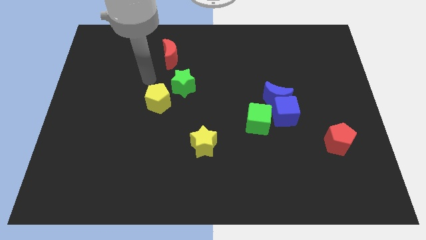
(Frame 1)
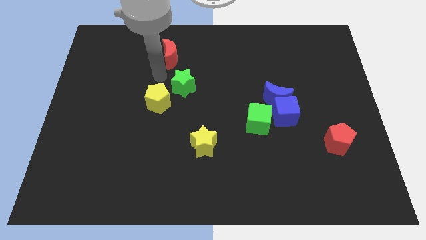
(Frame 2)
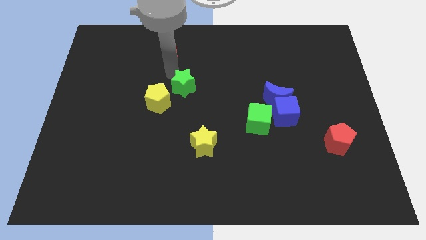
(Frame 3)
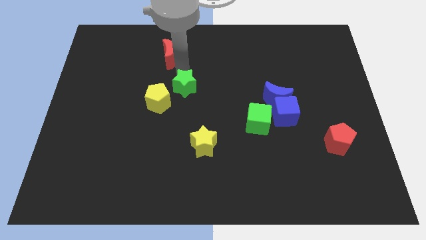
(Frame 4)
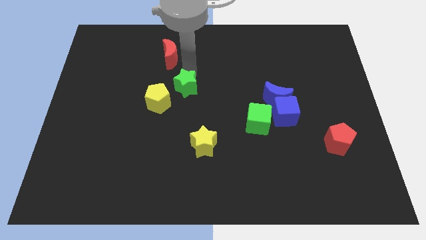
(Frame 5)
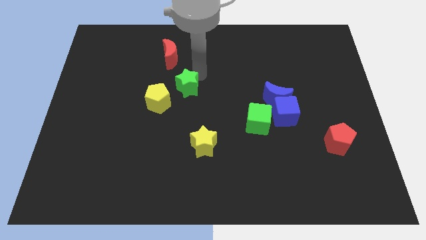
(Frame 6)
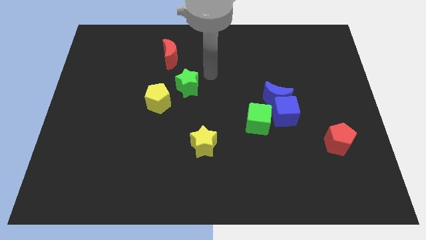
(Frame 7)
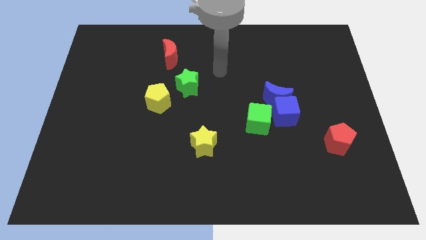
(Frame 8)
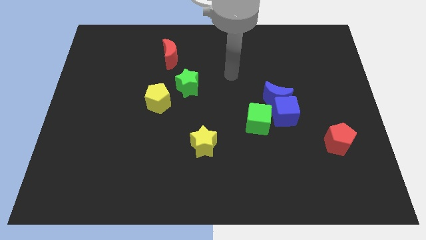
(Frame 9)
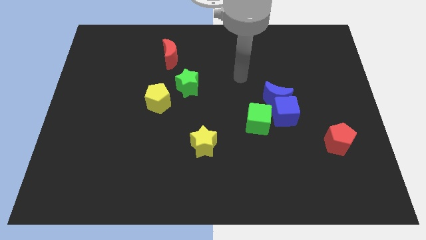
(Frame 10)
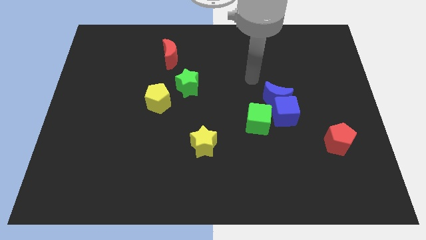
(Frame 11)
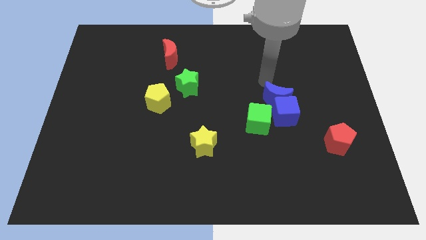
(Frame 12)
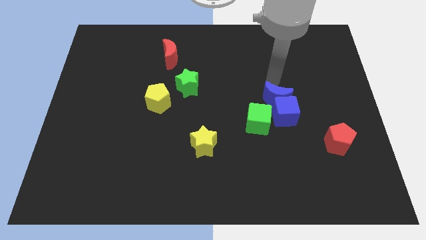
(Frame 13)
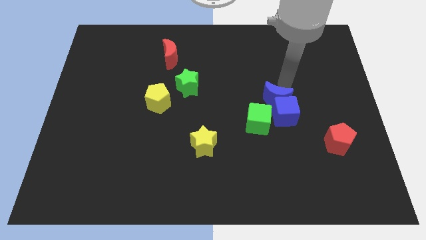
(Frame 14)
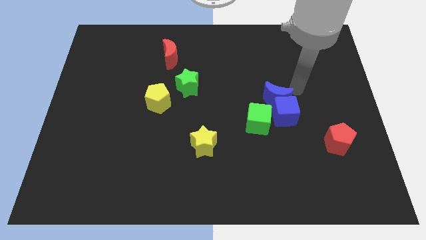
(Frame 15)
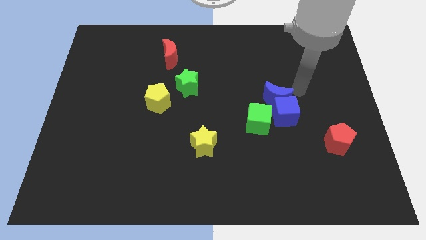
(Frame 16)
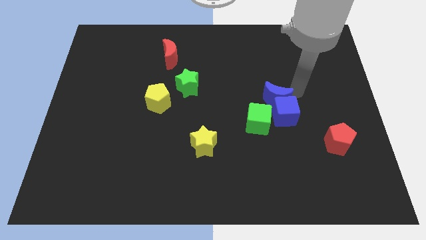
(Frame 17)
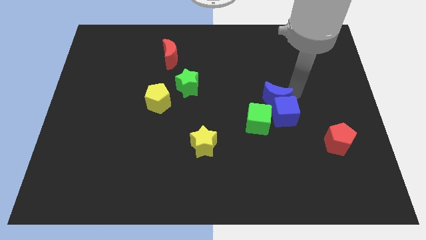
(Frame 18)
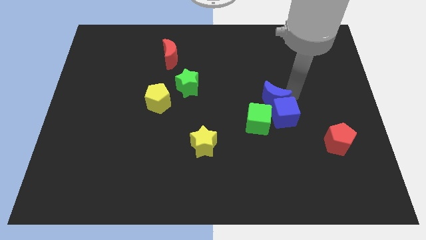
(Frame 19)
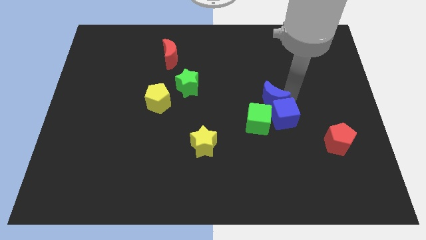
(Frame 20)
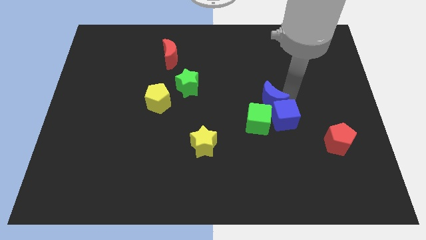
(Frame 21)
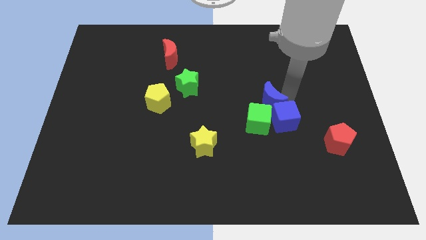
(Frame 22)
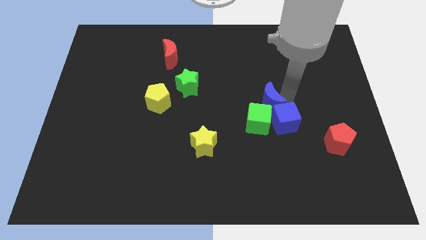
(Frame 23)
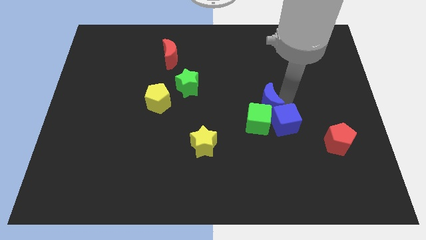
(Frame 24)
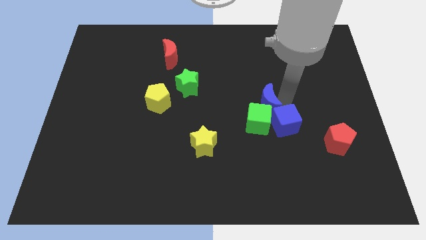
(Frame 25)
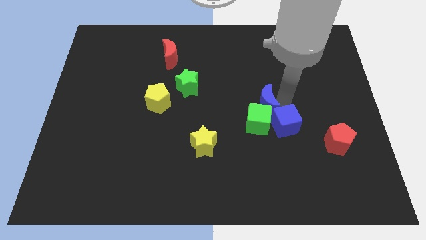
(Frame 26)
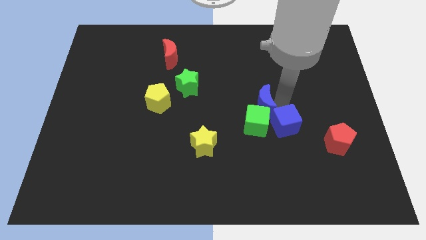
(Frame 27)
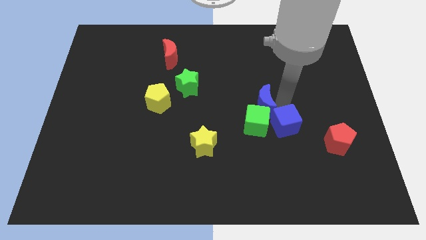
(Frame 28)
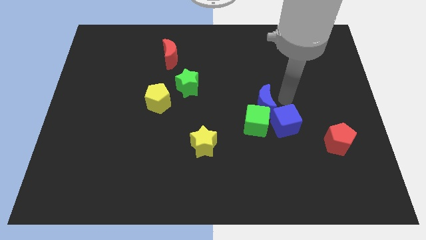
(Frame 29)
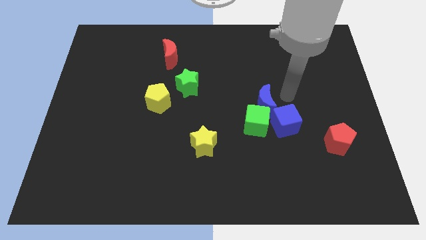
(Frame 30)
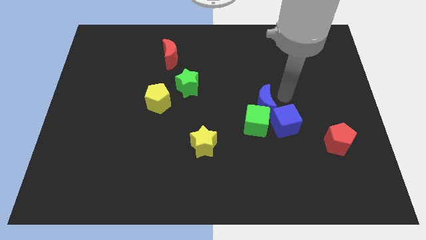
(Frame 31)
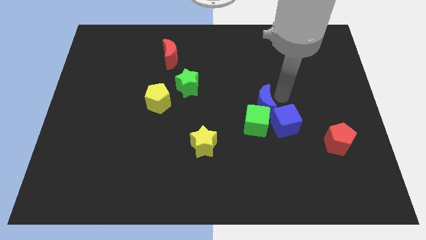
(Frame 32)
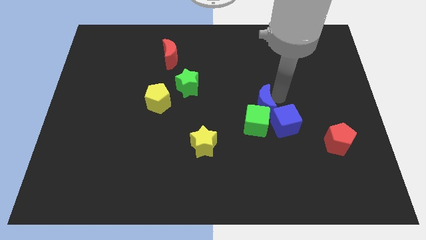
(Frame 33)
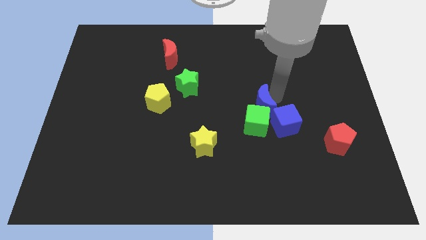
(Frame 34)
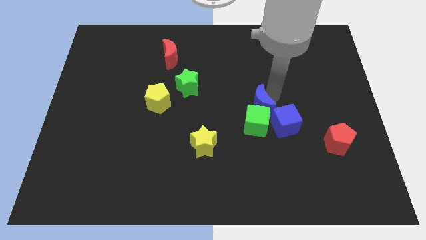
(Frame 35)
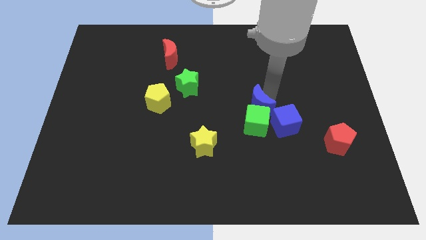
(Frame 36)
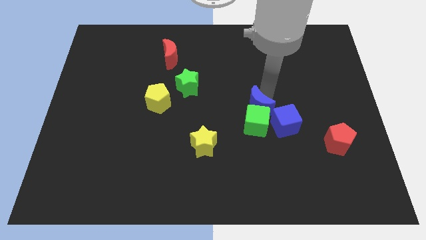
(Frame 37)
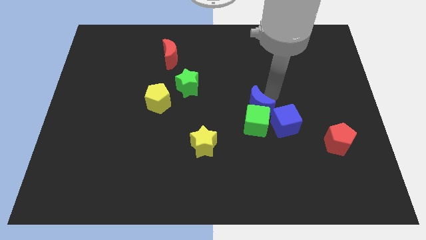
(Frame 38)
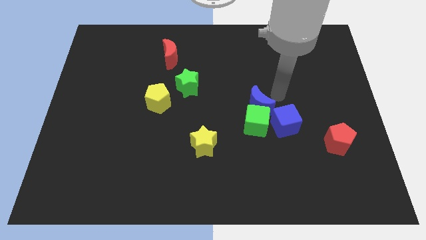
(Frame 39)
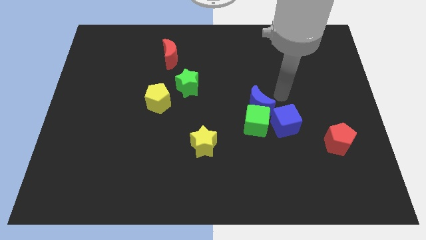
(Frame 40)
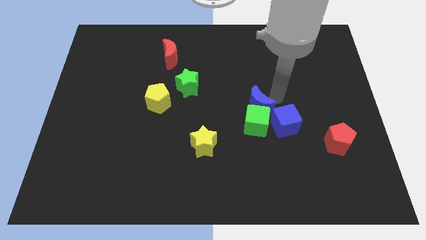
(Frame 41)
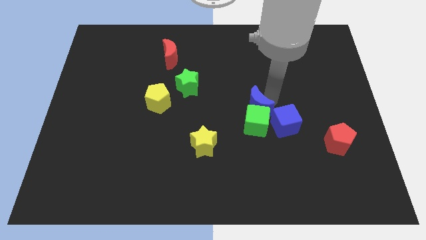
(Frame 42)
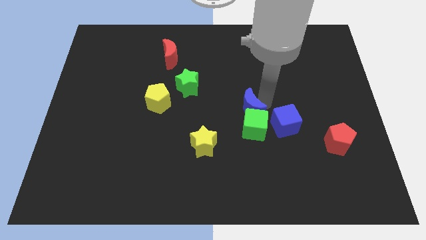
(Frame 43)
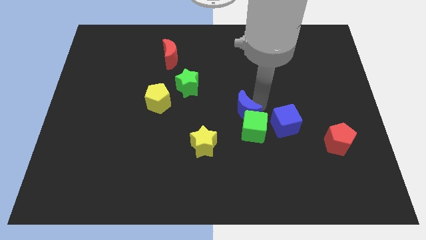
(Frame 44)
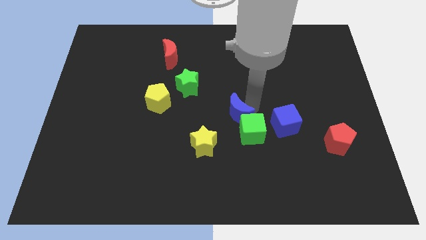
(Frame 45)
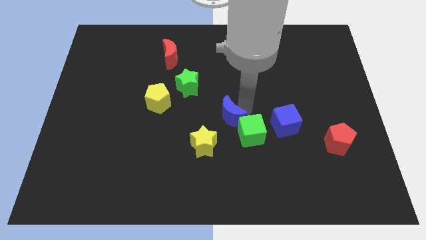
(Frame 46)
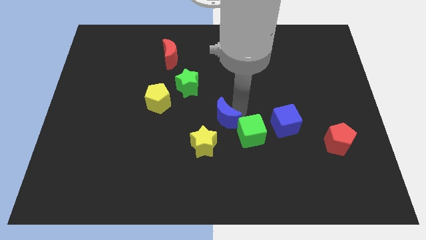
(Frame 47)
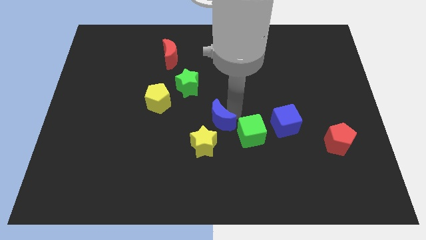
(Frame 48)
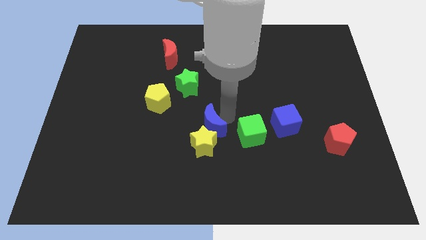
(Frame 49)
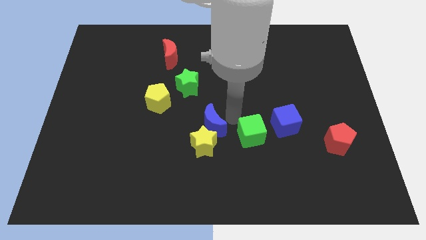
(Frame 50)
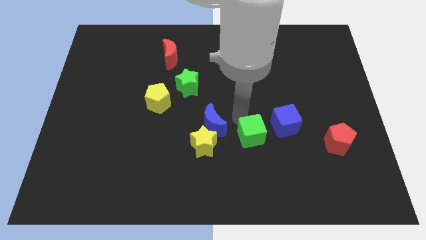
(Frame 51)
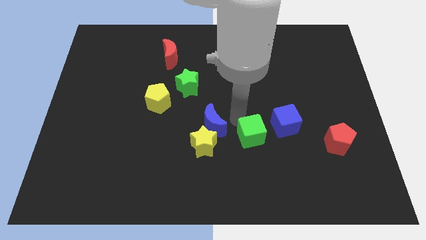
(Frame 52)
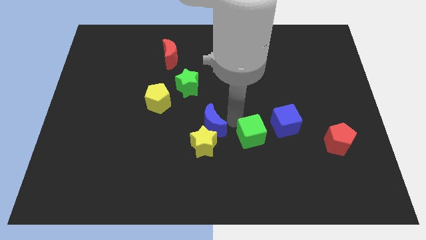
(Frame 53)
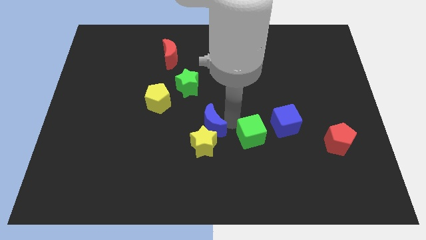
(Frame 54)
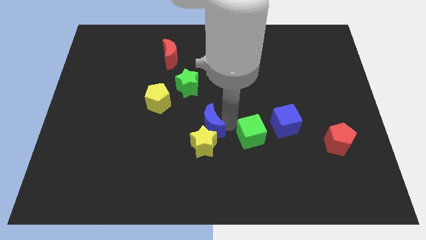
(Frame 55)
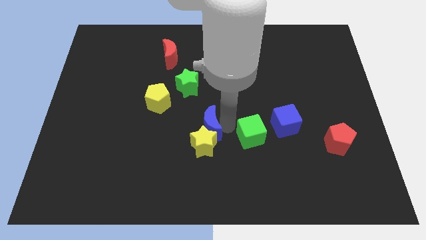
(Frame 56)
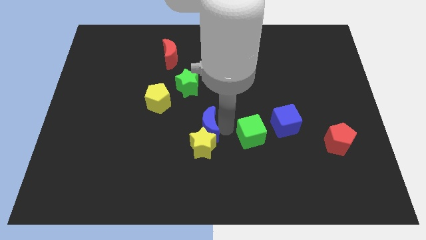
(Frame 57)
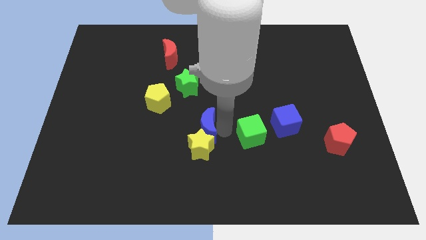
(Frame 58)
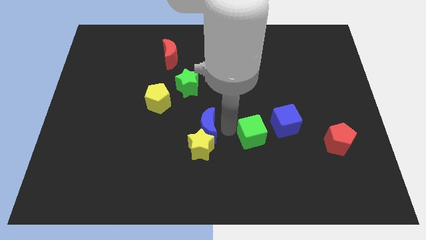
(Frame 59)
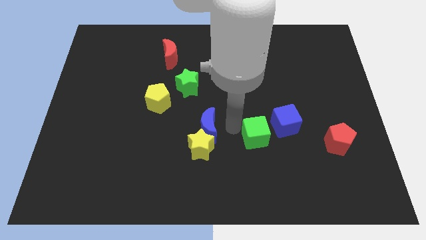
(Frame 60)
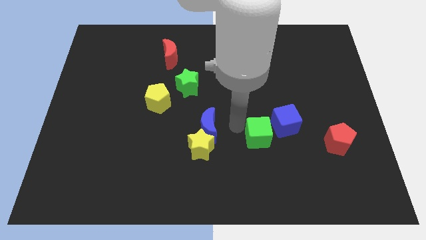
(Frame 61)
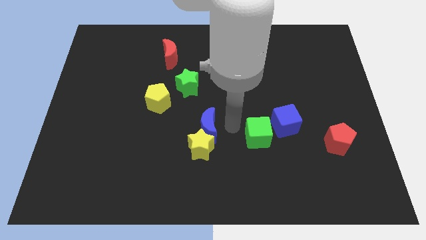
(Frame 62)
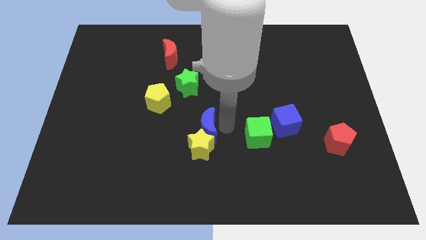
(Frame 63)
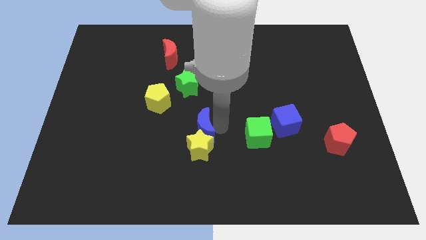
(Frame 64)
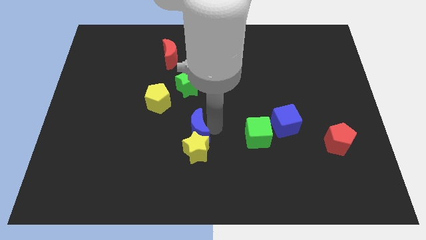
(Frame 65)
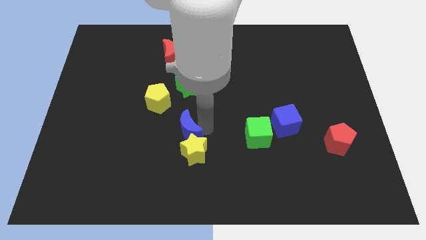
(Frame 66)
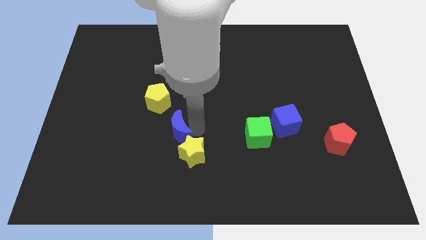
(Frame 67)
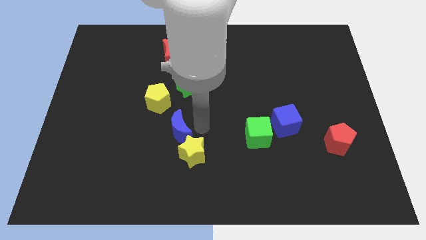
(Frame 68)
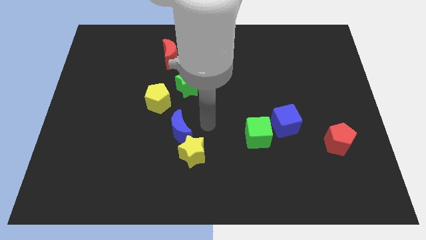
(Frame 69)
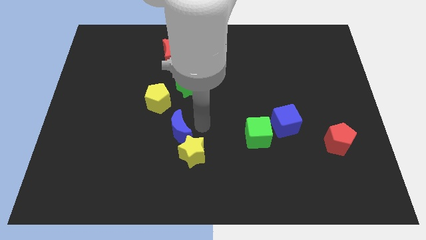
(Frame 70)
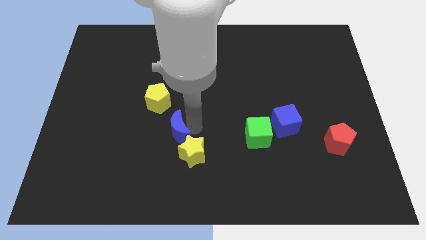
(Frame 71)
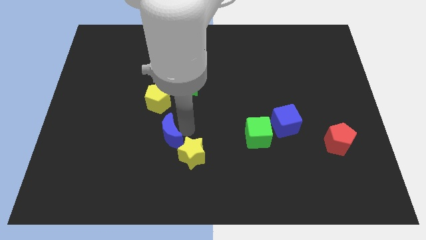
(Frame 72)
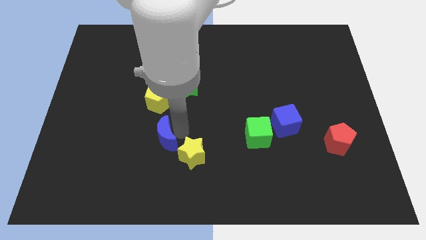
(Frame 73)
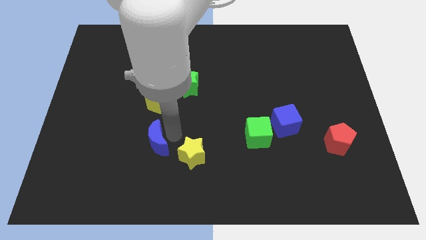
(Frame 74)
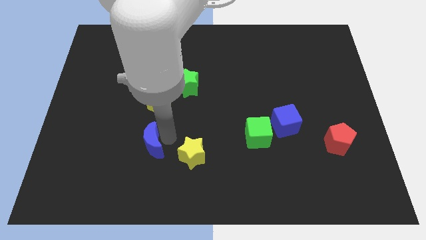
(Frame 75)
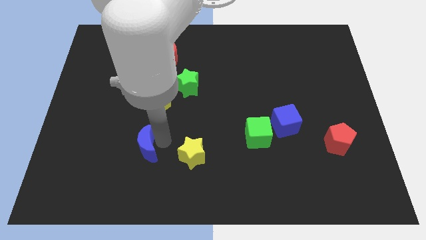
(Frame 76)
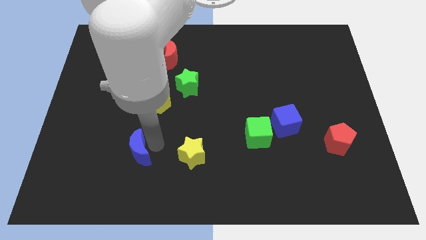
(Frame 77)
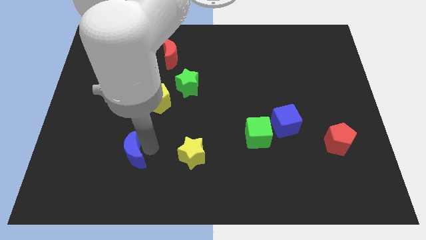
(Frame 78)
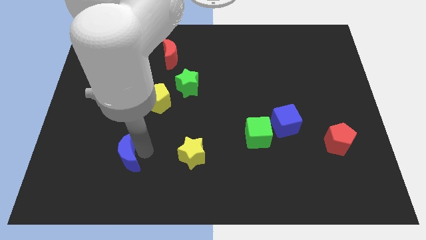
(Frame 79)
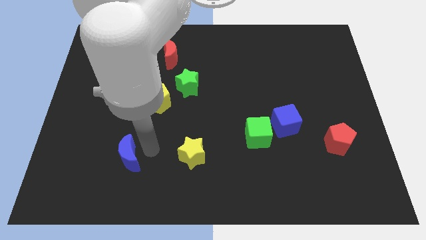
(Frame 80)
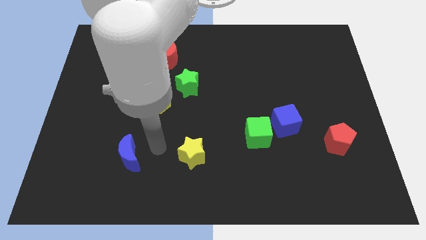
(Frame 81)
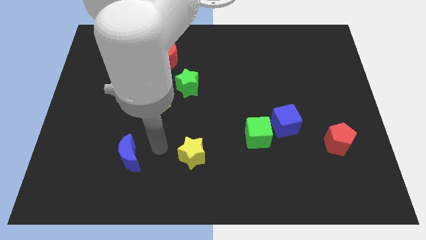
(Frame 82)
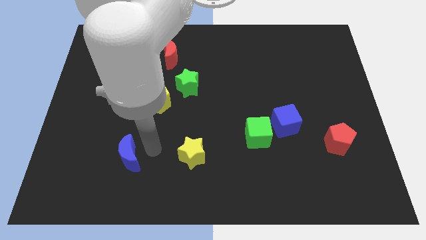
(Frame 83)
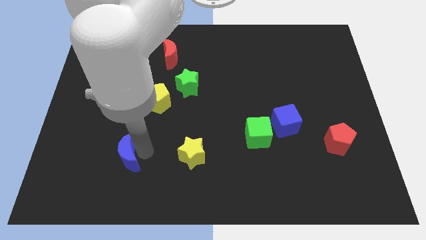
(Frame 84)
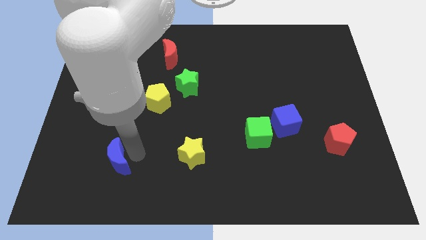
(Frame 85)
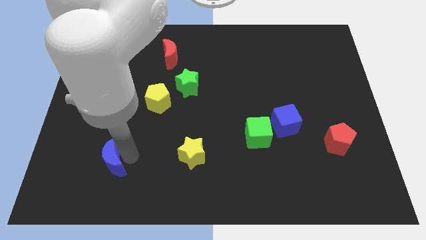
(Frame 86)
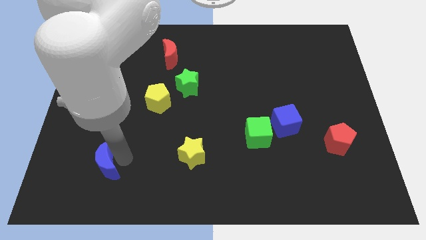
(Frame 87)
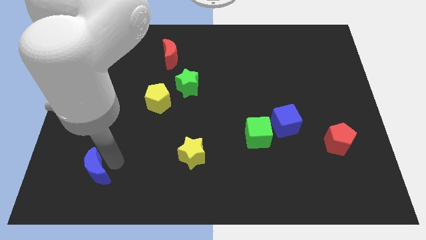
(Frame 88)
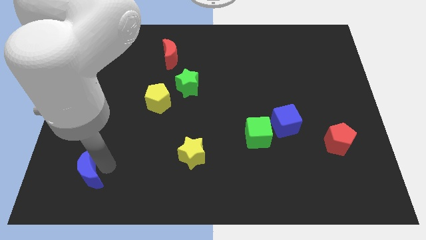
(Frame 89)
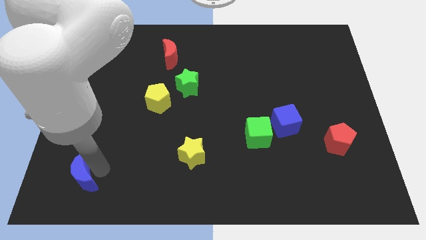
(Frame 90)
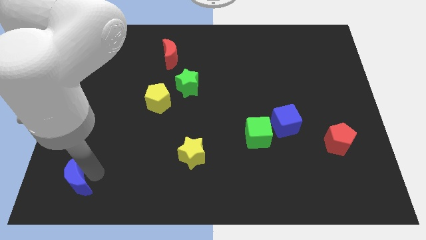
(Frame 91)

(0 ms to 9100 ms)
put the blue moon to the bottom left of the board
